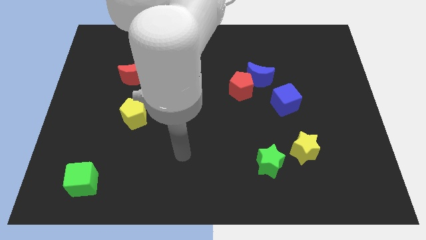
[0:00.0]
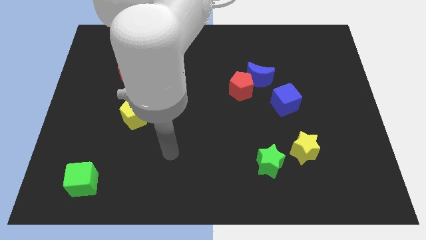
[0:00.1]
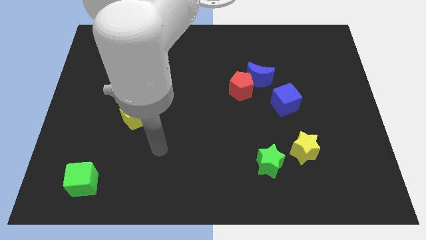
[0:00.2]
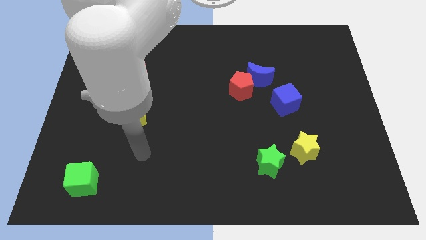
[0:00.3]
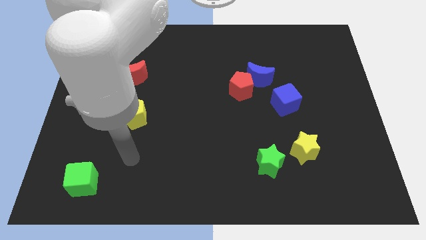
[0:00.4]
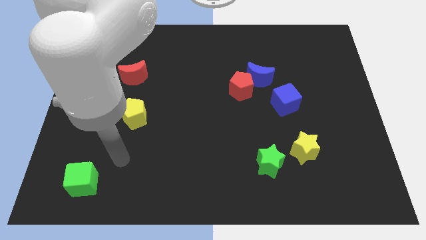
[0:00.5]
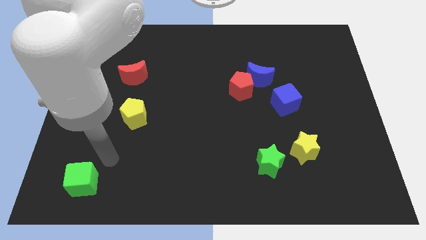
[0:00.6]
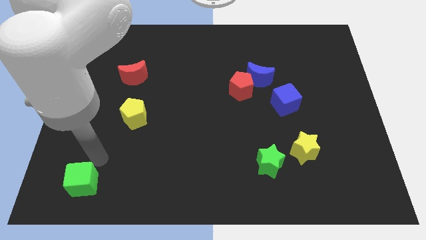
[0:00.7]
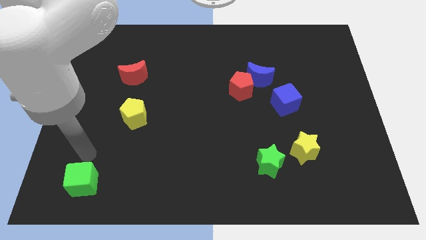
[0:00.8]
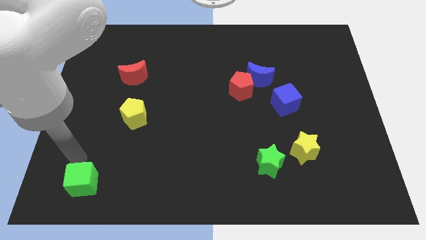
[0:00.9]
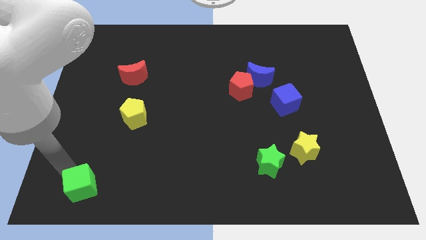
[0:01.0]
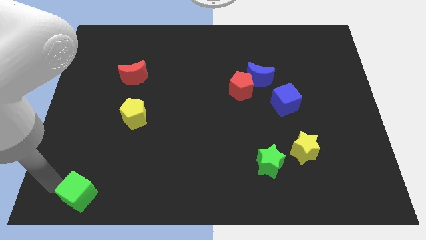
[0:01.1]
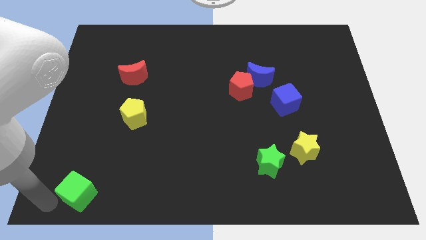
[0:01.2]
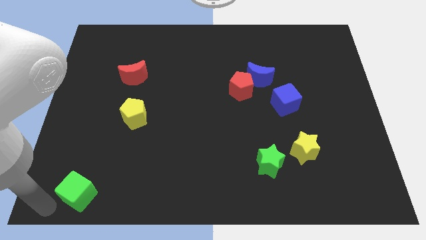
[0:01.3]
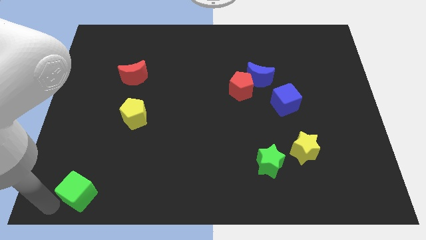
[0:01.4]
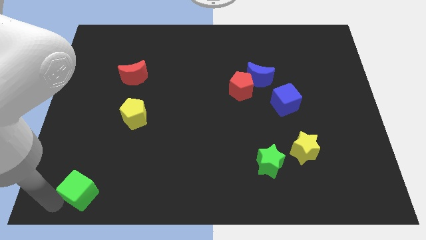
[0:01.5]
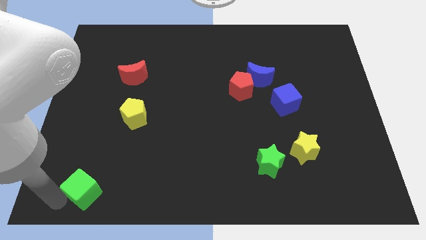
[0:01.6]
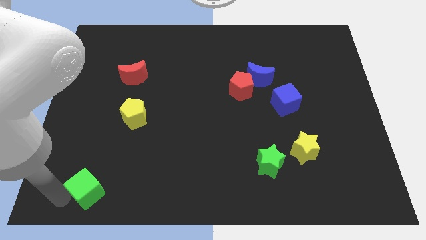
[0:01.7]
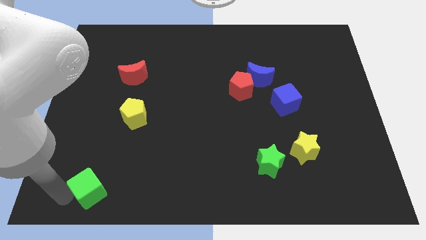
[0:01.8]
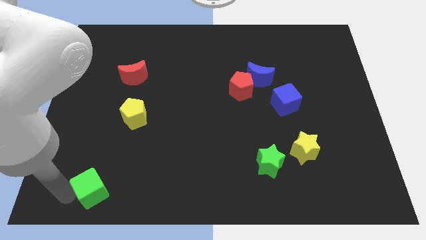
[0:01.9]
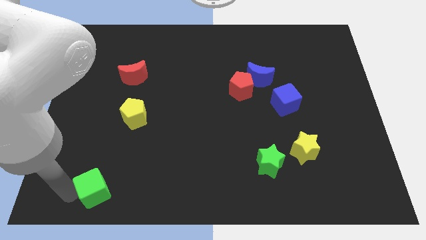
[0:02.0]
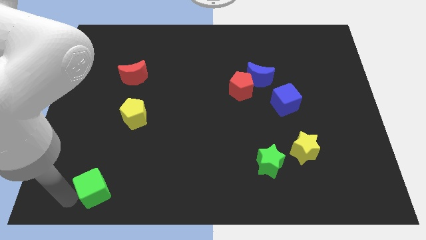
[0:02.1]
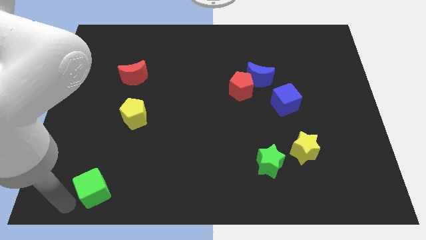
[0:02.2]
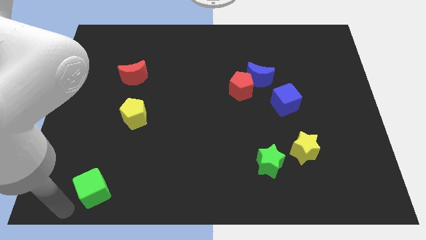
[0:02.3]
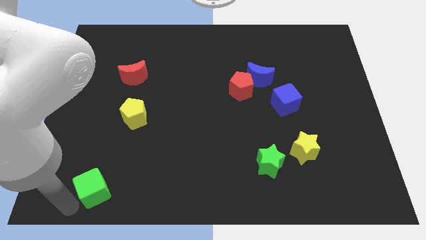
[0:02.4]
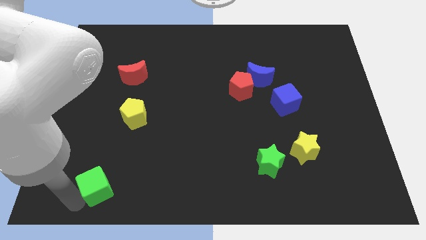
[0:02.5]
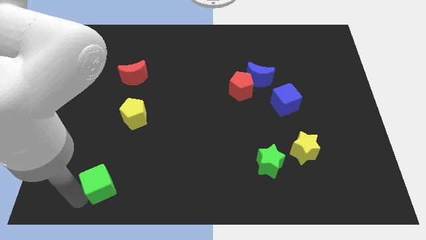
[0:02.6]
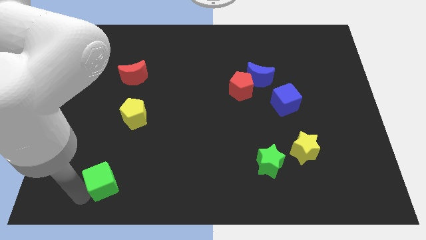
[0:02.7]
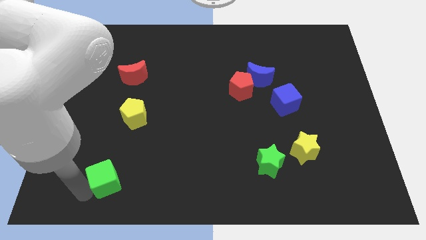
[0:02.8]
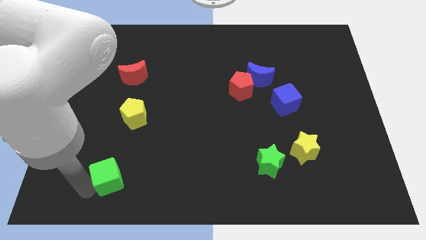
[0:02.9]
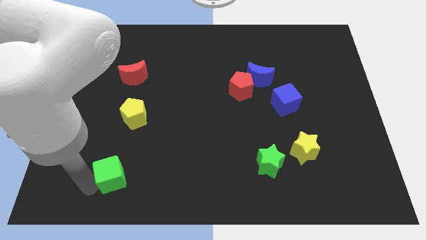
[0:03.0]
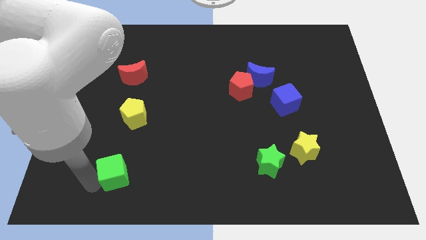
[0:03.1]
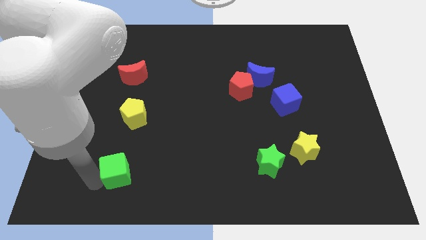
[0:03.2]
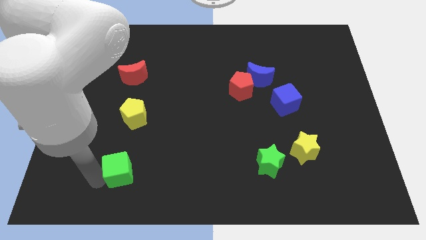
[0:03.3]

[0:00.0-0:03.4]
push the green cube right a little

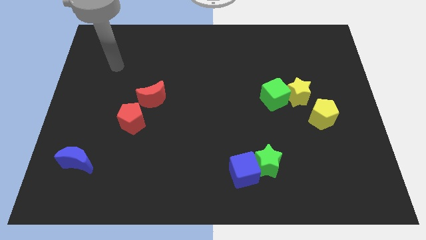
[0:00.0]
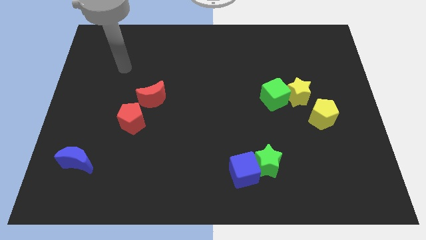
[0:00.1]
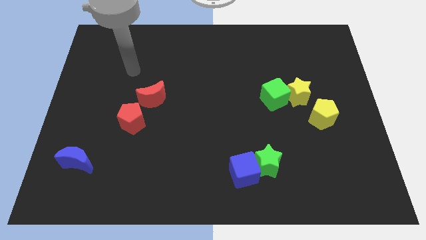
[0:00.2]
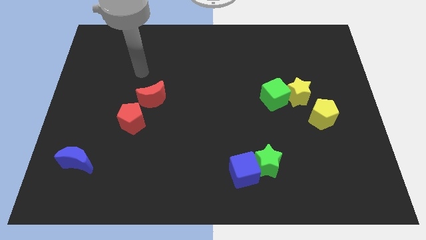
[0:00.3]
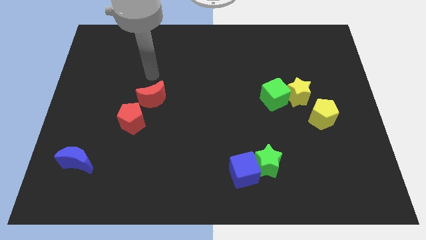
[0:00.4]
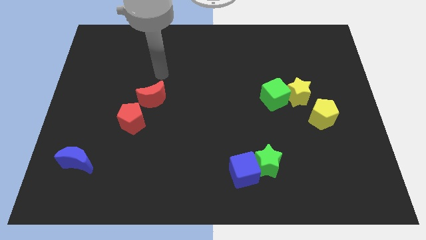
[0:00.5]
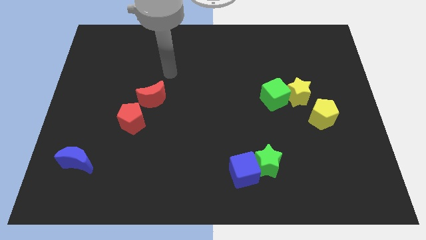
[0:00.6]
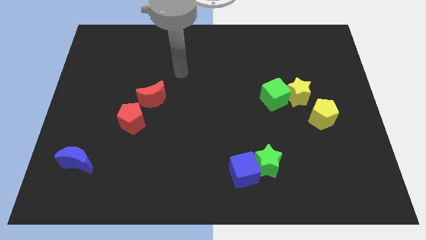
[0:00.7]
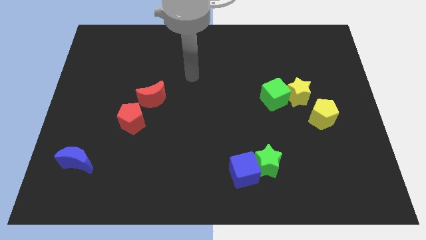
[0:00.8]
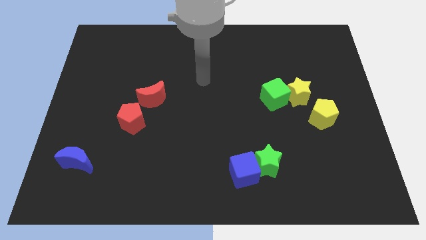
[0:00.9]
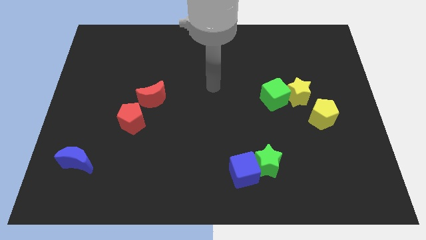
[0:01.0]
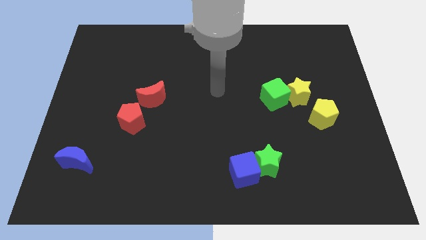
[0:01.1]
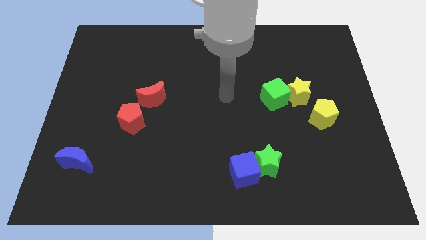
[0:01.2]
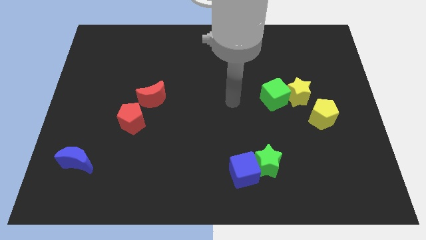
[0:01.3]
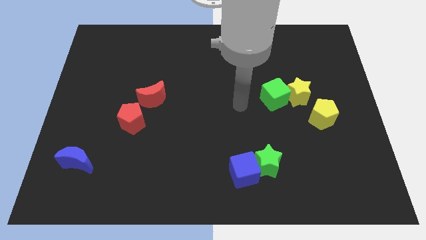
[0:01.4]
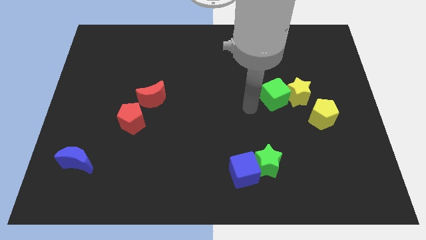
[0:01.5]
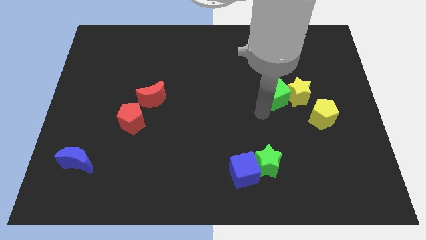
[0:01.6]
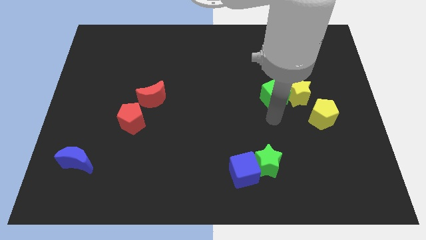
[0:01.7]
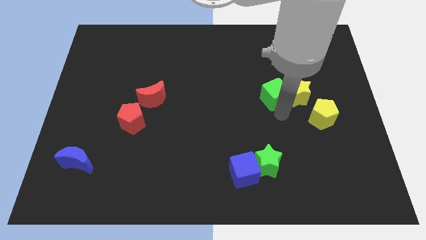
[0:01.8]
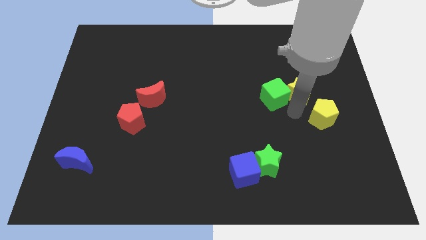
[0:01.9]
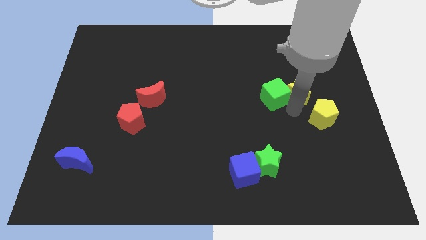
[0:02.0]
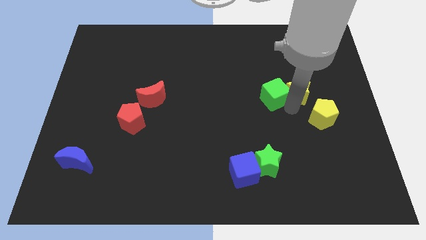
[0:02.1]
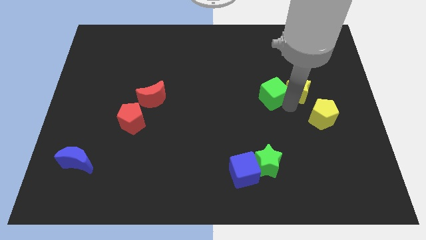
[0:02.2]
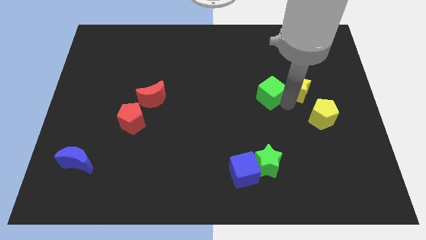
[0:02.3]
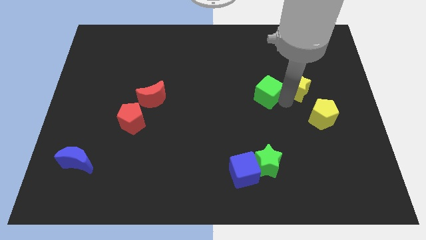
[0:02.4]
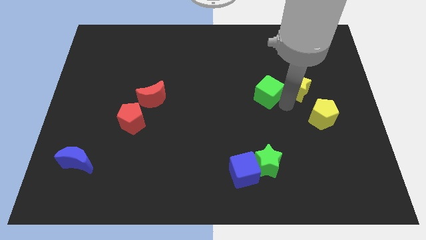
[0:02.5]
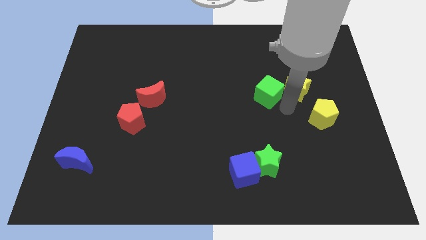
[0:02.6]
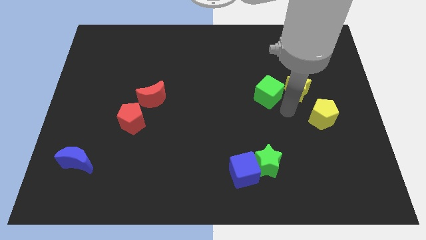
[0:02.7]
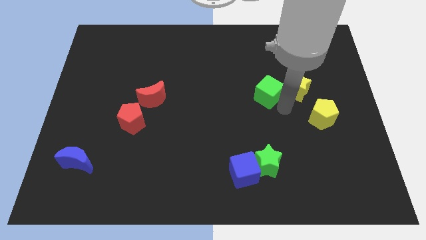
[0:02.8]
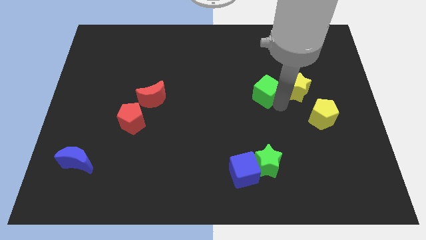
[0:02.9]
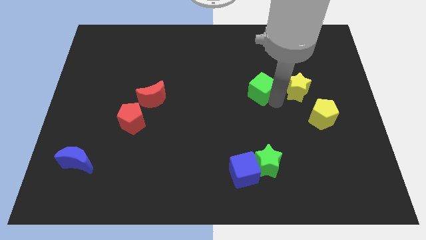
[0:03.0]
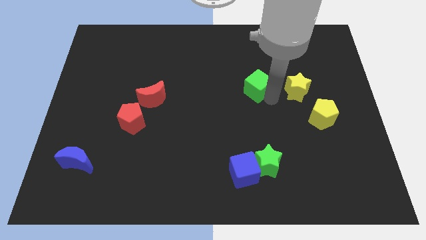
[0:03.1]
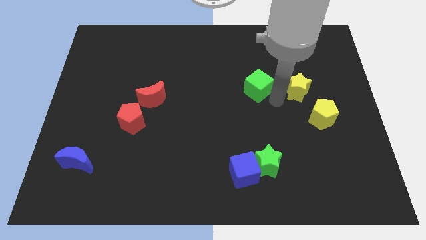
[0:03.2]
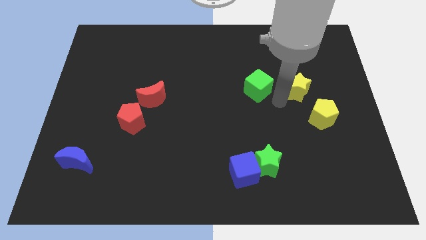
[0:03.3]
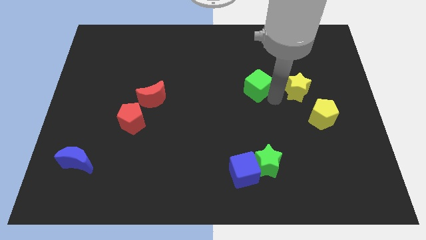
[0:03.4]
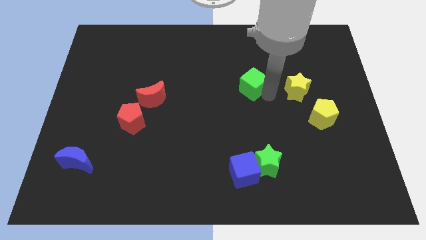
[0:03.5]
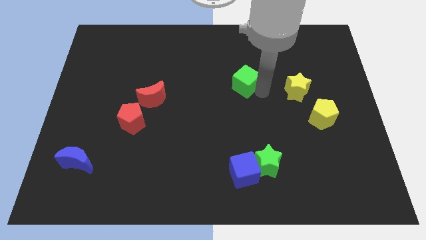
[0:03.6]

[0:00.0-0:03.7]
slightly push the green cube up and left diagonally

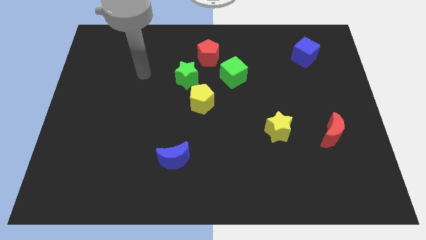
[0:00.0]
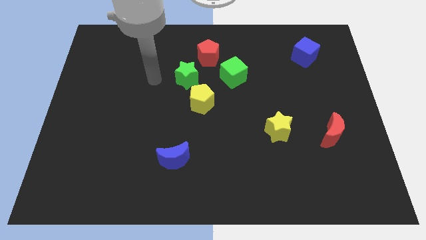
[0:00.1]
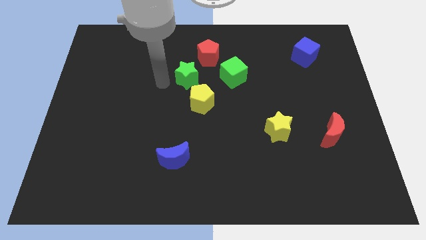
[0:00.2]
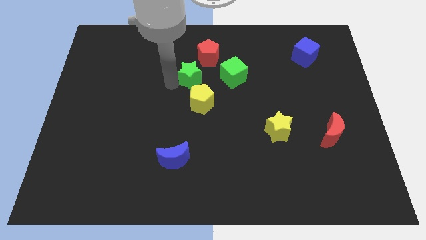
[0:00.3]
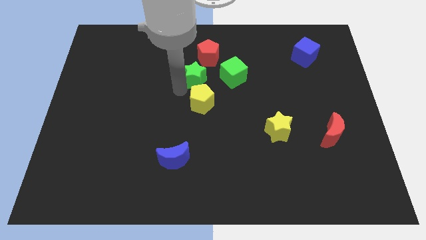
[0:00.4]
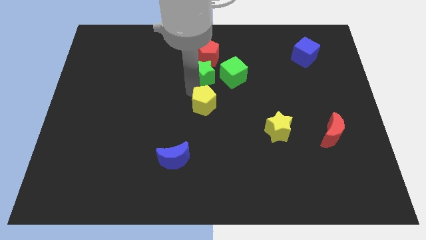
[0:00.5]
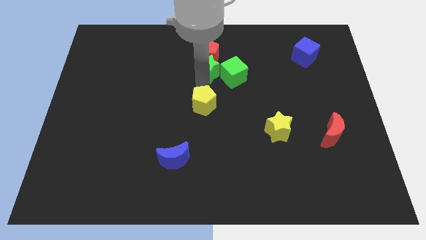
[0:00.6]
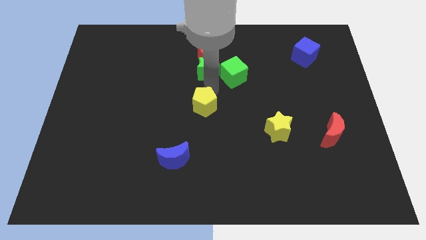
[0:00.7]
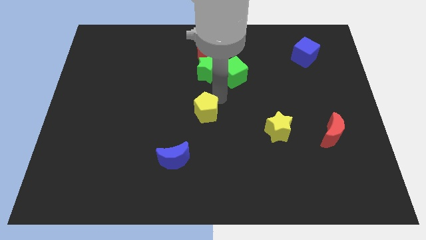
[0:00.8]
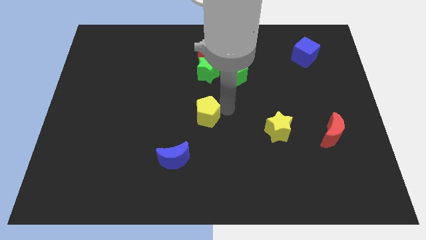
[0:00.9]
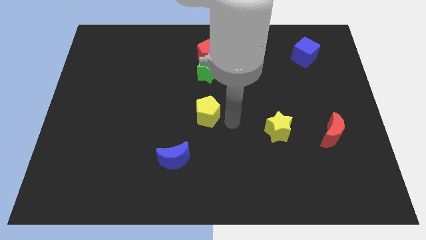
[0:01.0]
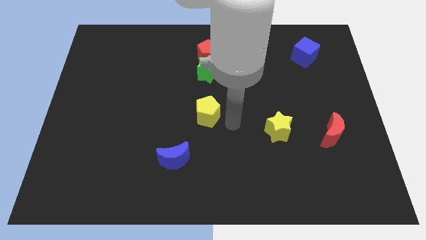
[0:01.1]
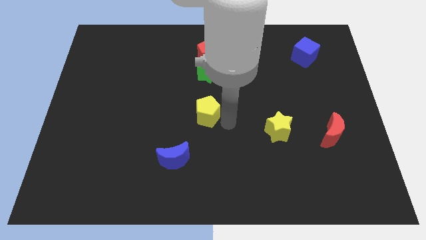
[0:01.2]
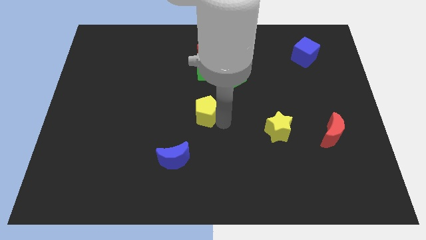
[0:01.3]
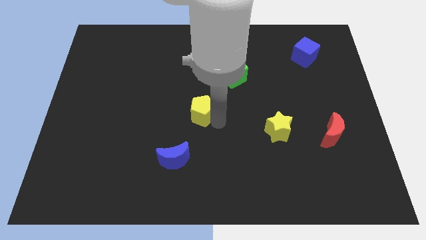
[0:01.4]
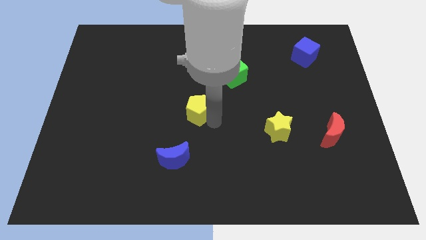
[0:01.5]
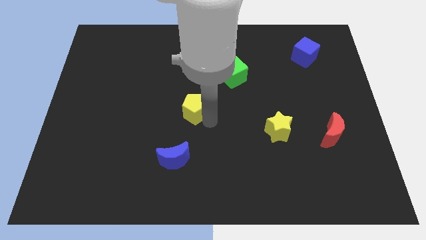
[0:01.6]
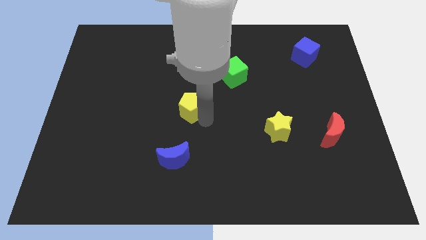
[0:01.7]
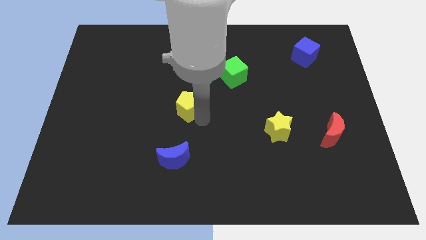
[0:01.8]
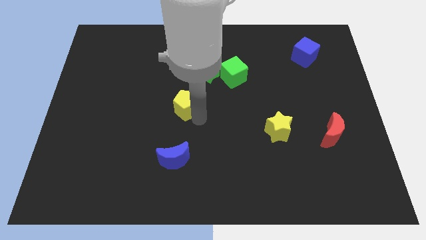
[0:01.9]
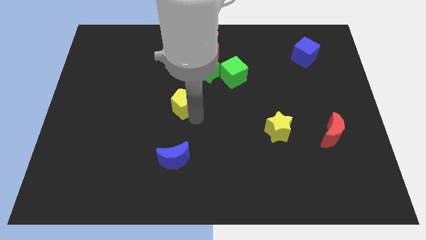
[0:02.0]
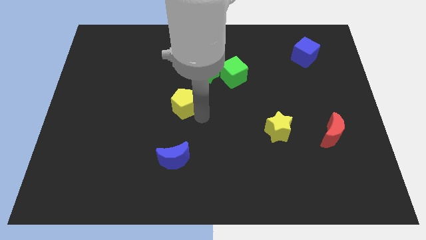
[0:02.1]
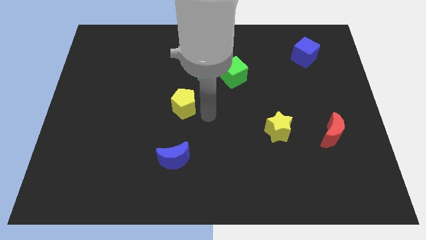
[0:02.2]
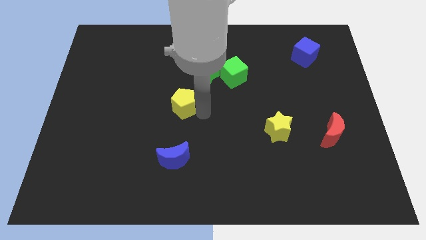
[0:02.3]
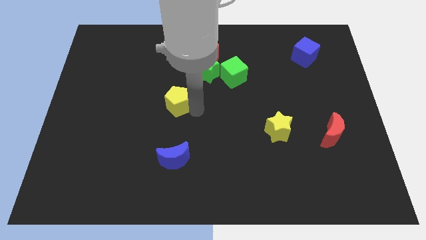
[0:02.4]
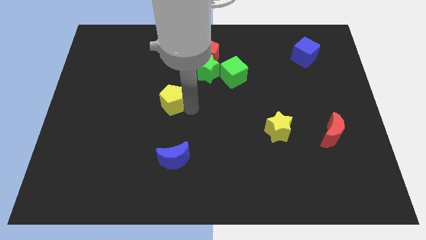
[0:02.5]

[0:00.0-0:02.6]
push the yellow pentagon left somewhat
